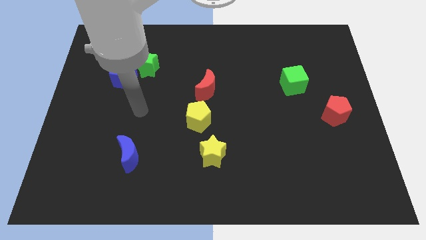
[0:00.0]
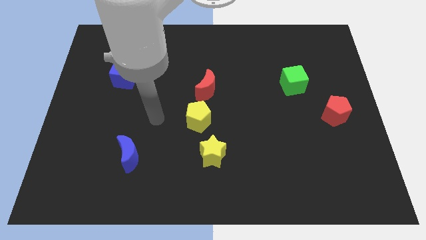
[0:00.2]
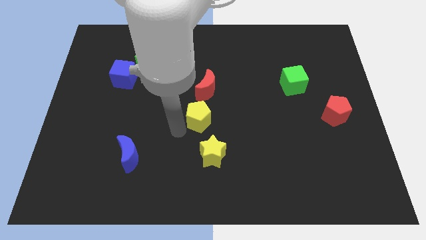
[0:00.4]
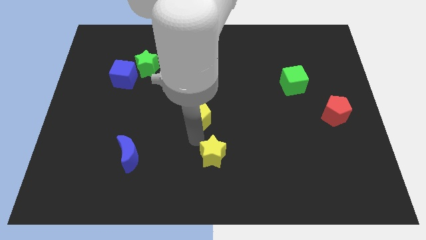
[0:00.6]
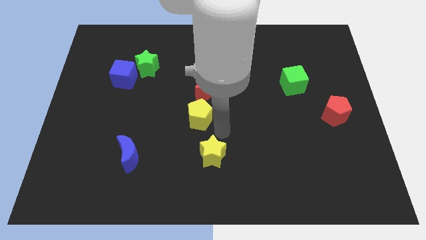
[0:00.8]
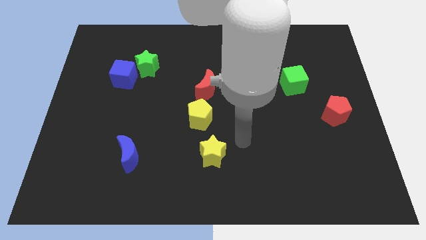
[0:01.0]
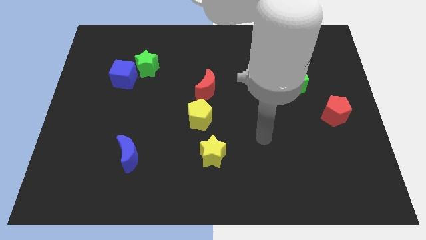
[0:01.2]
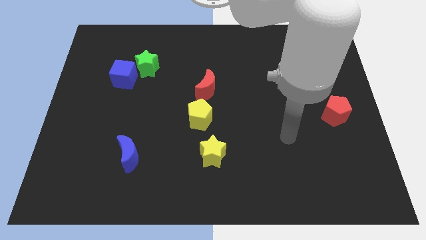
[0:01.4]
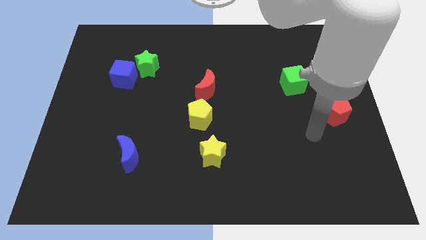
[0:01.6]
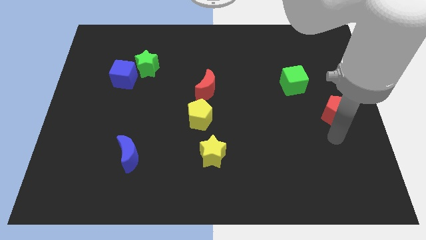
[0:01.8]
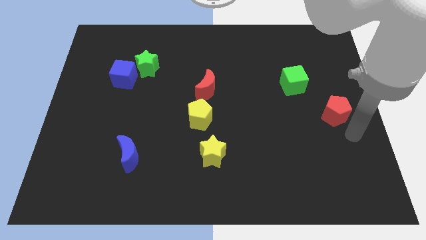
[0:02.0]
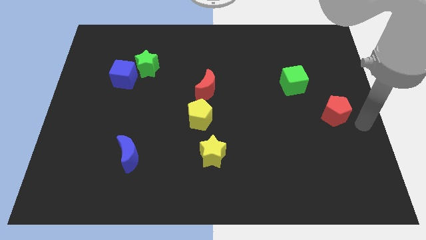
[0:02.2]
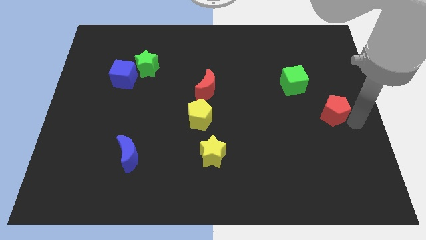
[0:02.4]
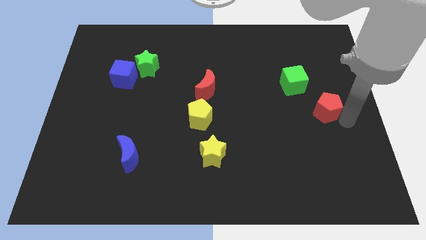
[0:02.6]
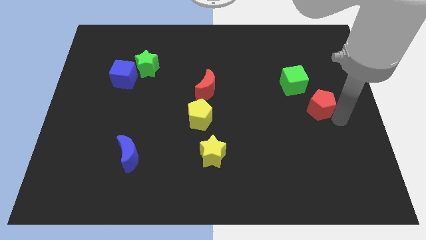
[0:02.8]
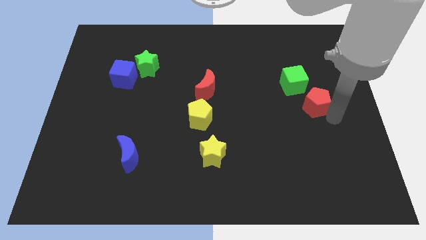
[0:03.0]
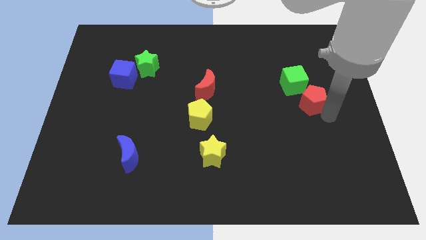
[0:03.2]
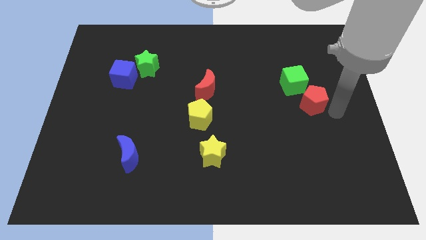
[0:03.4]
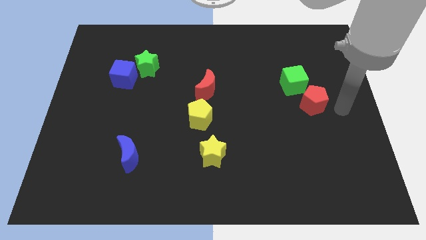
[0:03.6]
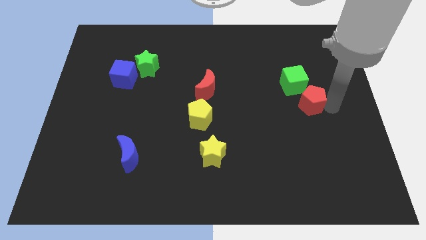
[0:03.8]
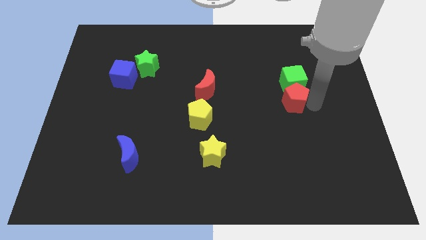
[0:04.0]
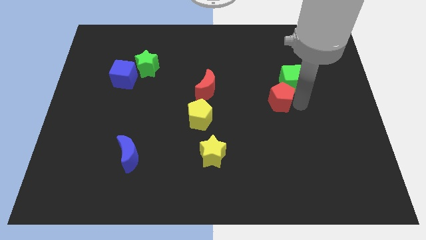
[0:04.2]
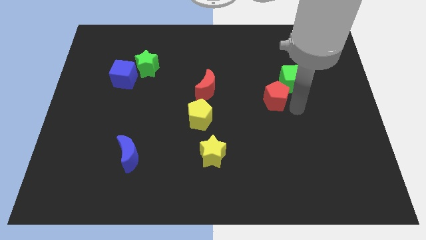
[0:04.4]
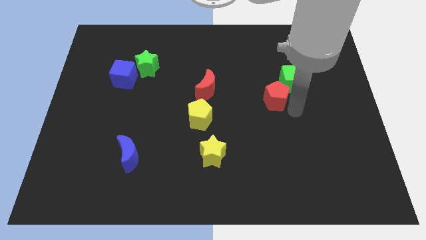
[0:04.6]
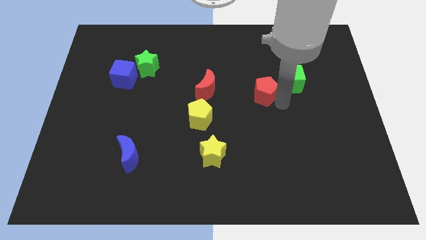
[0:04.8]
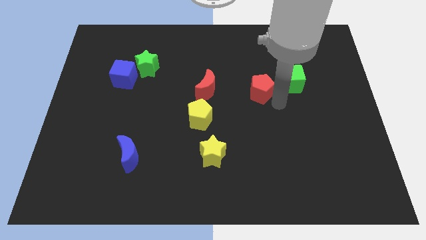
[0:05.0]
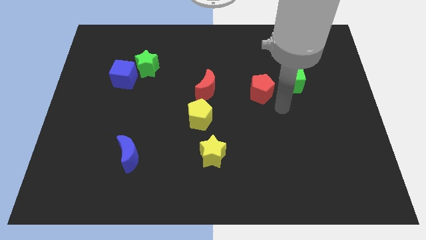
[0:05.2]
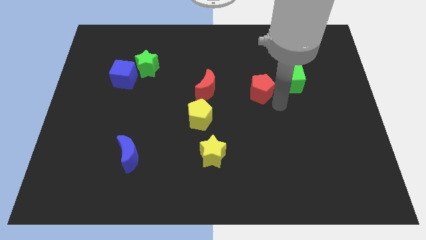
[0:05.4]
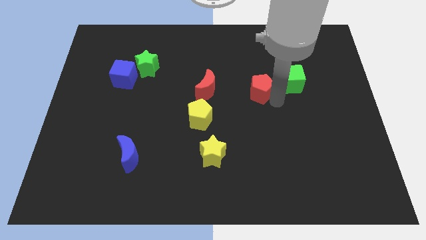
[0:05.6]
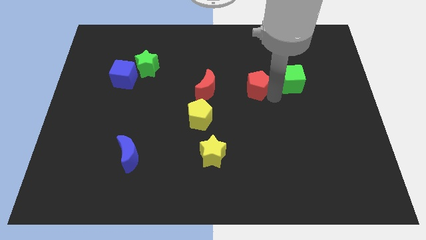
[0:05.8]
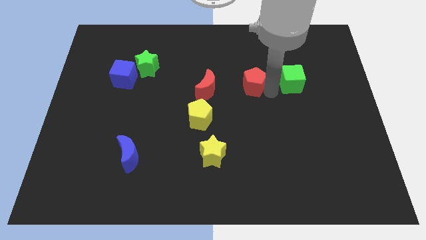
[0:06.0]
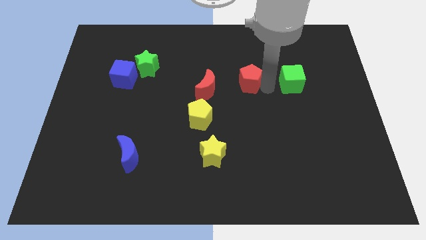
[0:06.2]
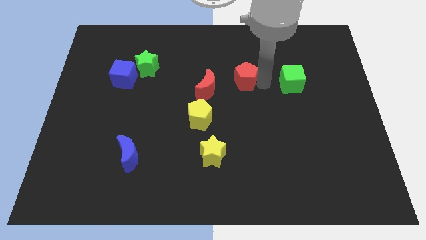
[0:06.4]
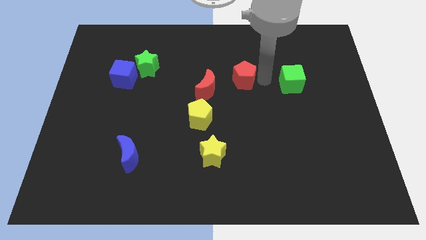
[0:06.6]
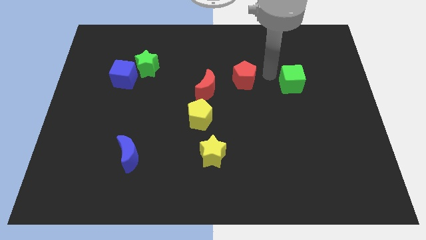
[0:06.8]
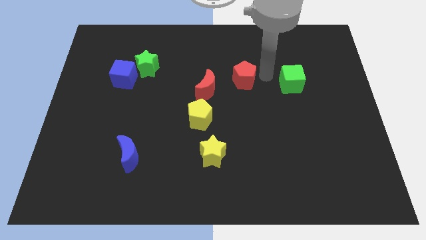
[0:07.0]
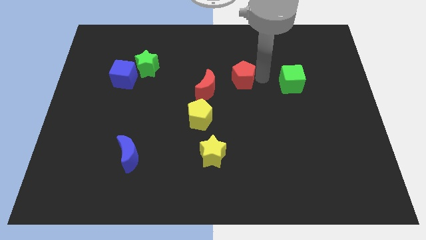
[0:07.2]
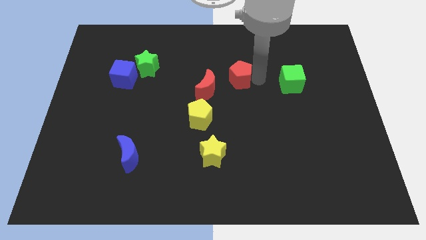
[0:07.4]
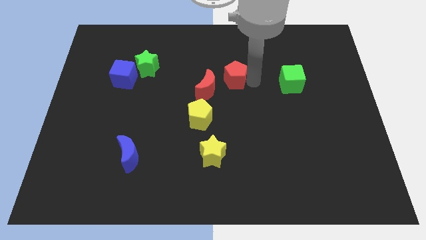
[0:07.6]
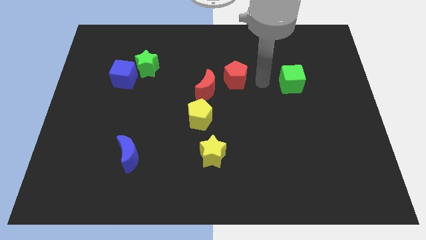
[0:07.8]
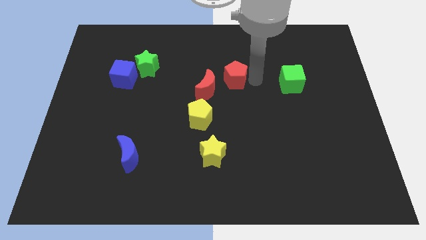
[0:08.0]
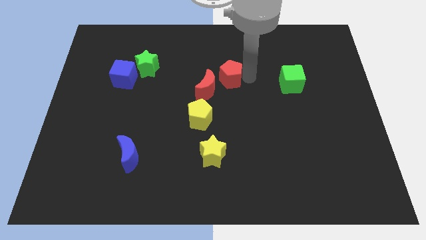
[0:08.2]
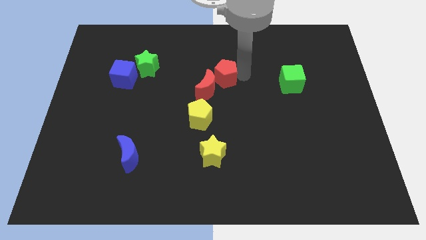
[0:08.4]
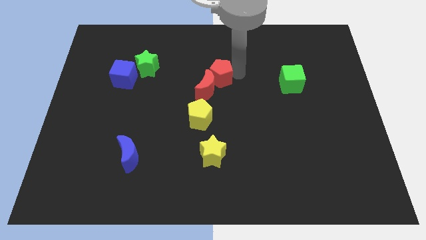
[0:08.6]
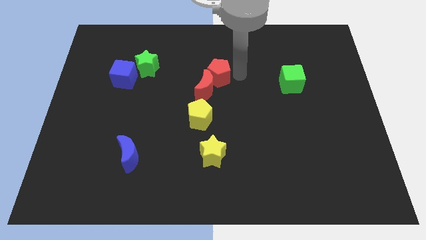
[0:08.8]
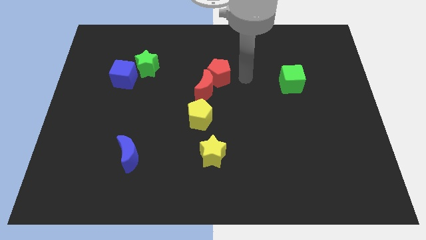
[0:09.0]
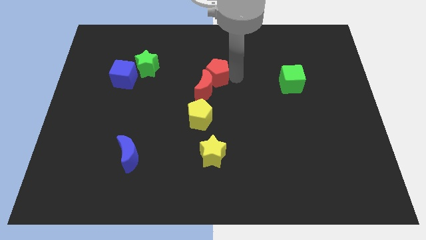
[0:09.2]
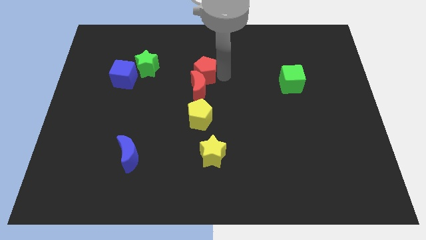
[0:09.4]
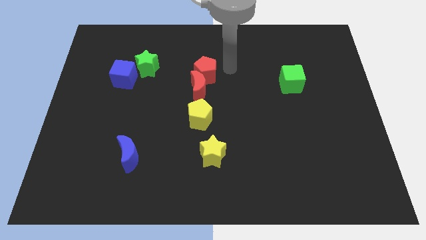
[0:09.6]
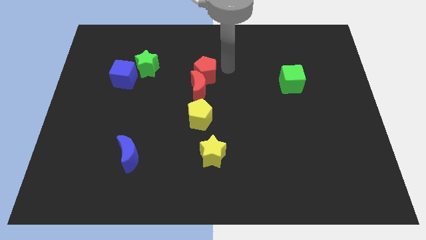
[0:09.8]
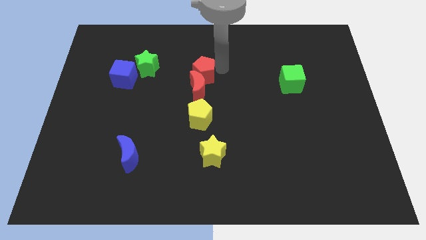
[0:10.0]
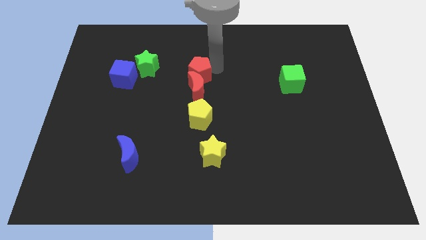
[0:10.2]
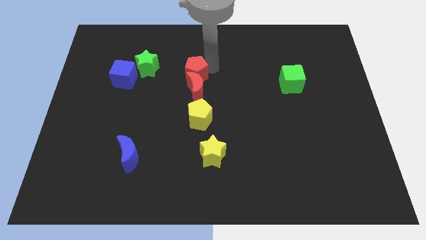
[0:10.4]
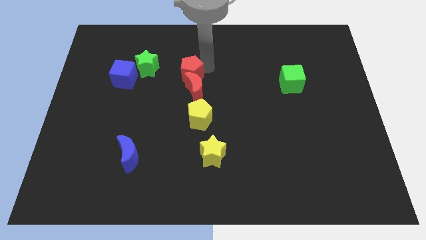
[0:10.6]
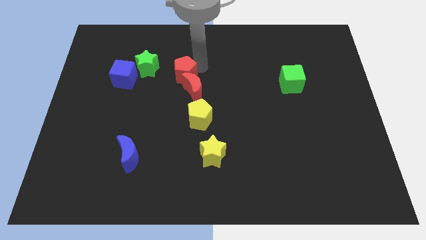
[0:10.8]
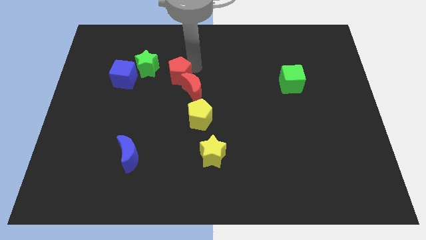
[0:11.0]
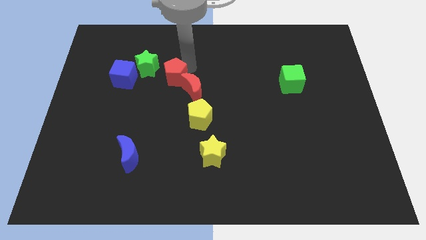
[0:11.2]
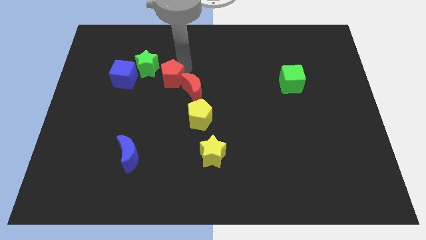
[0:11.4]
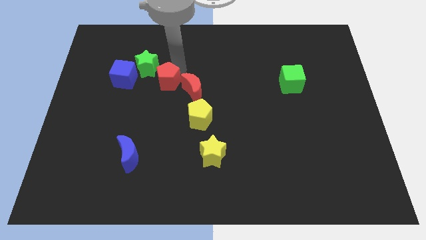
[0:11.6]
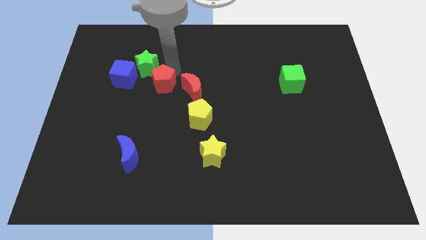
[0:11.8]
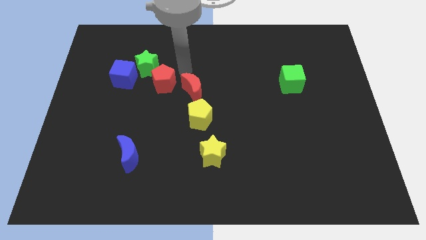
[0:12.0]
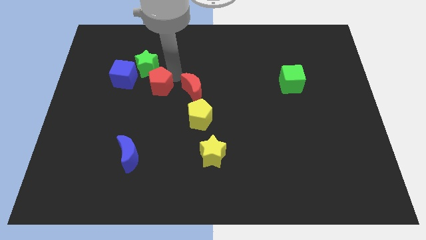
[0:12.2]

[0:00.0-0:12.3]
put the red pentagon diagonally down and to the right of the blue cube

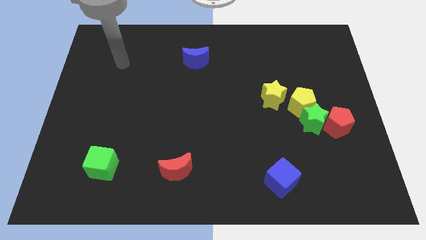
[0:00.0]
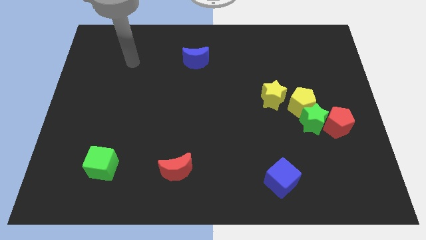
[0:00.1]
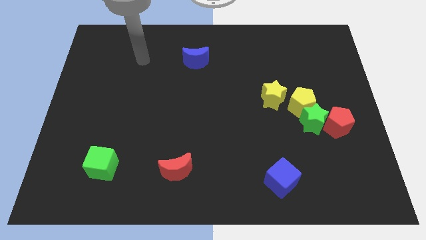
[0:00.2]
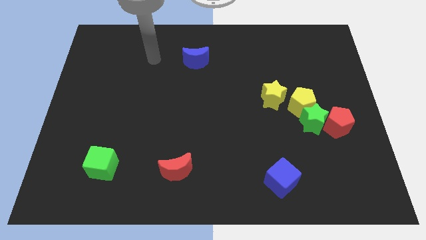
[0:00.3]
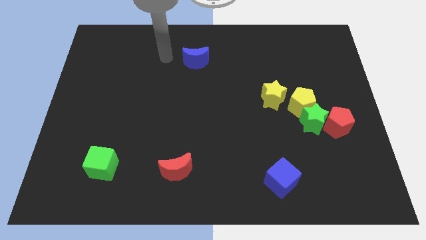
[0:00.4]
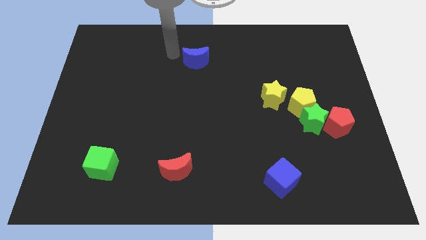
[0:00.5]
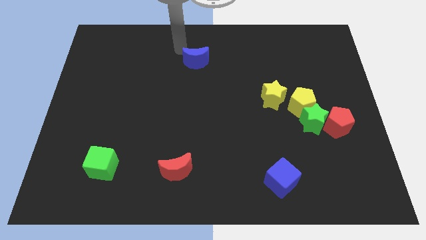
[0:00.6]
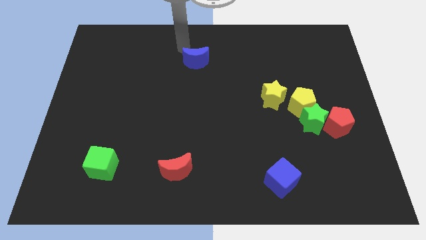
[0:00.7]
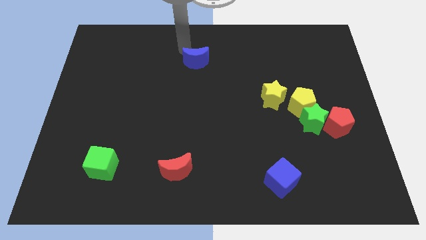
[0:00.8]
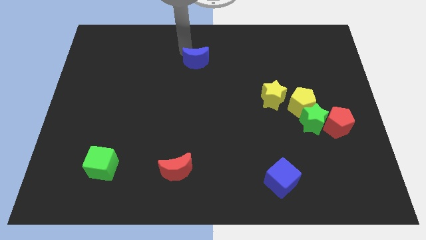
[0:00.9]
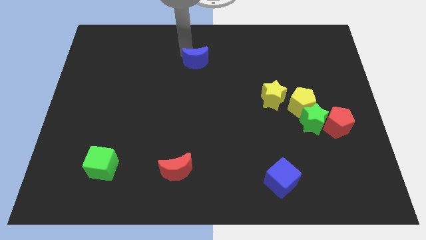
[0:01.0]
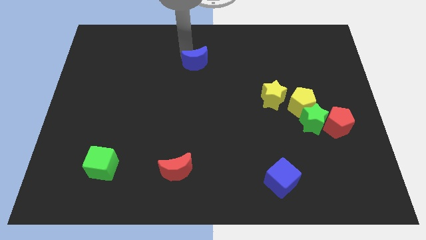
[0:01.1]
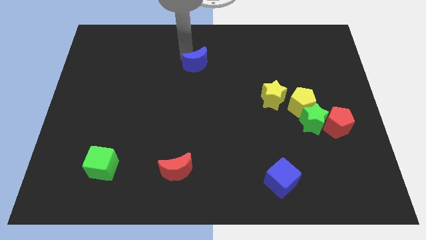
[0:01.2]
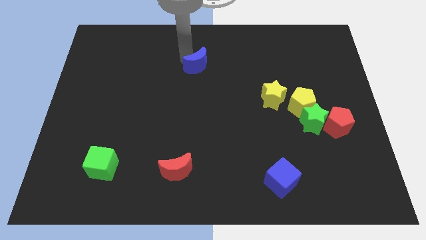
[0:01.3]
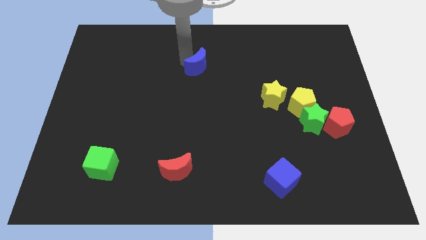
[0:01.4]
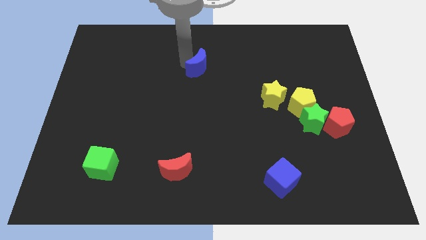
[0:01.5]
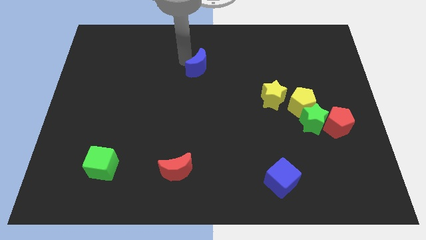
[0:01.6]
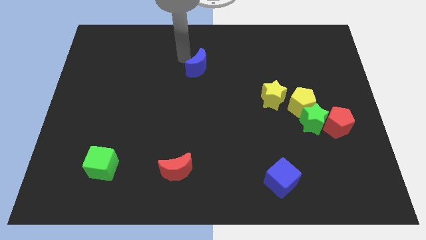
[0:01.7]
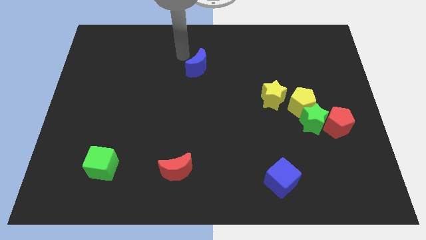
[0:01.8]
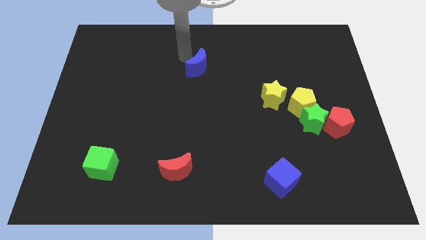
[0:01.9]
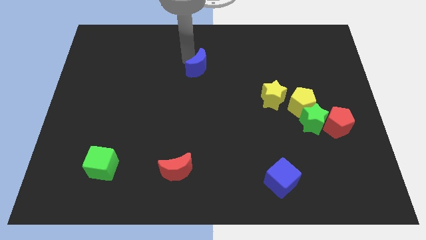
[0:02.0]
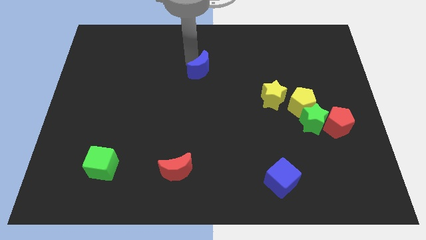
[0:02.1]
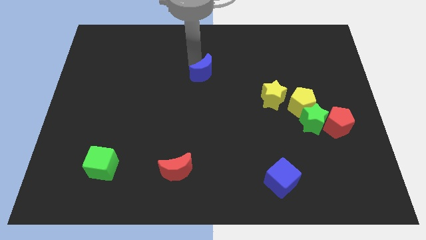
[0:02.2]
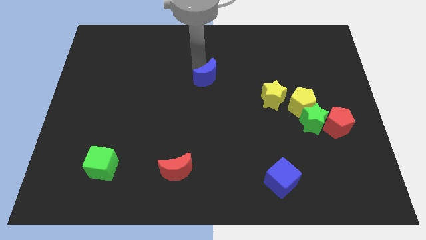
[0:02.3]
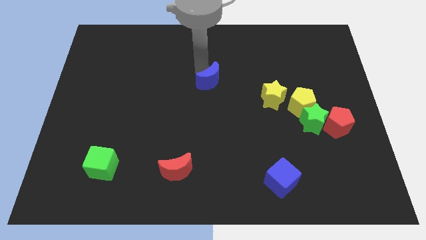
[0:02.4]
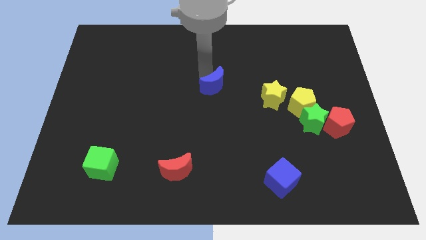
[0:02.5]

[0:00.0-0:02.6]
push the blue moon to the left side of the yellow star
